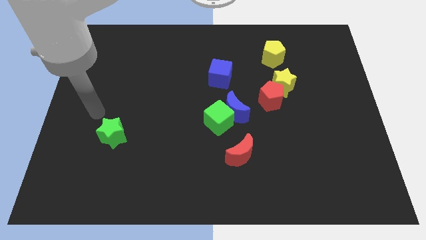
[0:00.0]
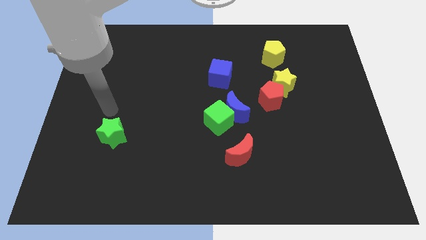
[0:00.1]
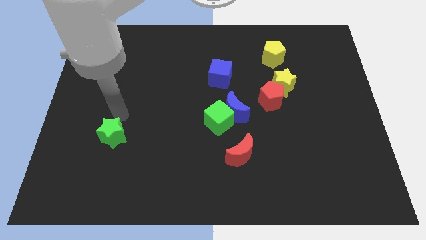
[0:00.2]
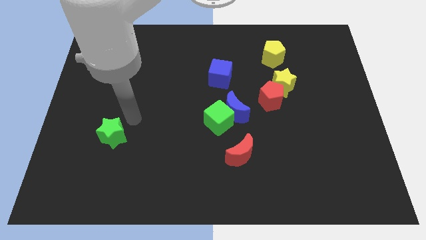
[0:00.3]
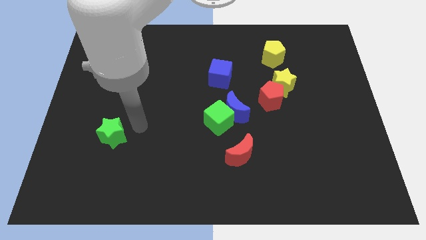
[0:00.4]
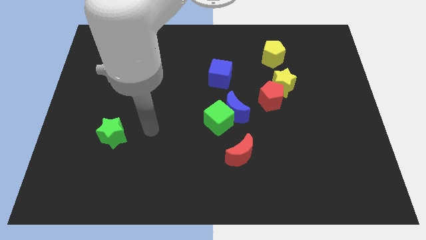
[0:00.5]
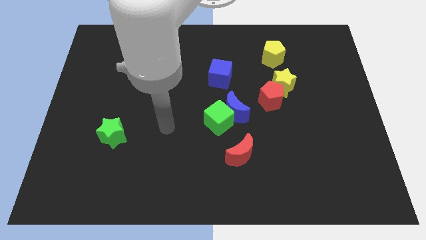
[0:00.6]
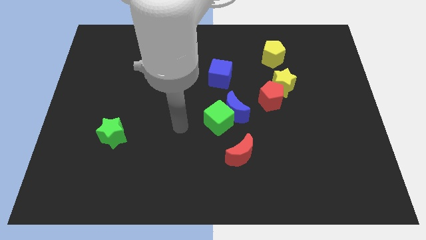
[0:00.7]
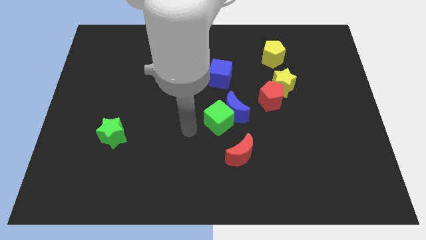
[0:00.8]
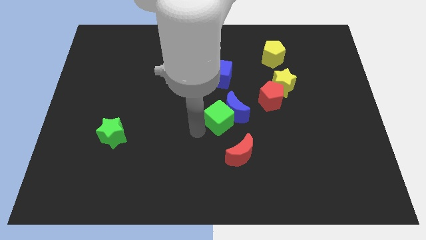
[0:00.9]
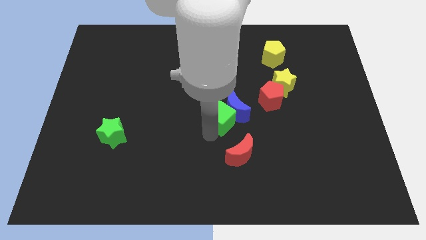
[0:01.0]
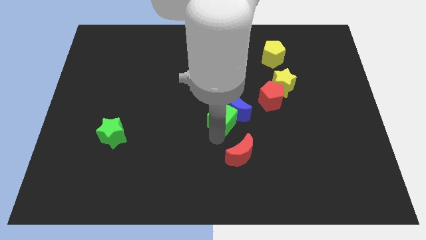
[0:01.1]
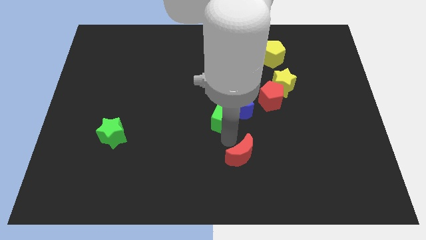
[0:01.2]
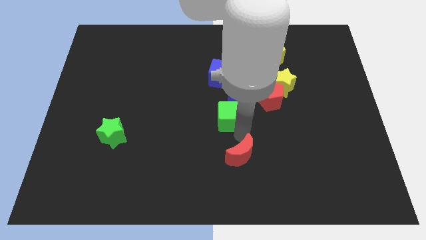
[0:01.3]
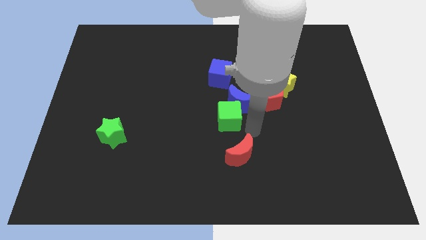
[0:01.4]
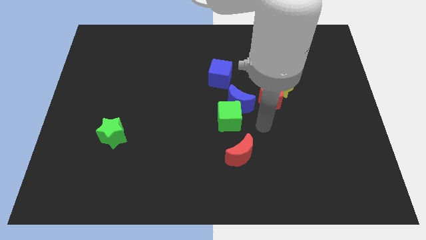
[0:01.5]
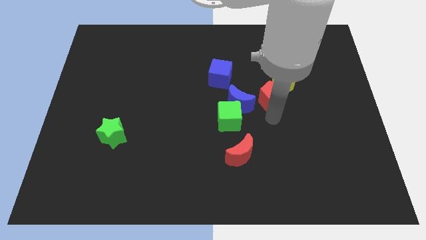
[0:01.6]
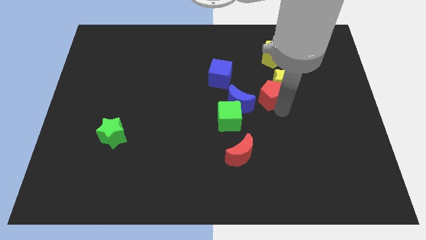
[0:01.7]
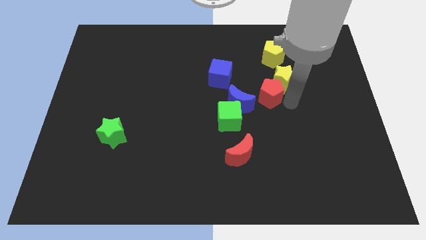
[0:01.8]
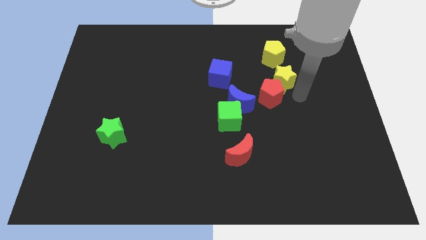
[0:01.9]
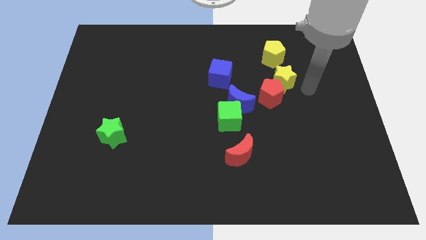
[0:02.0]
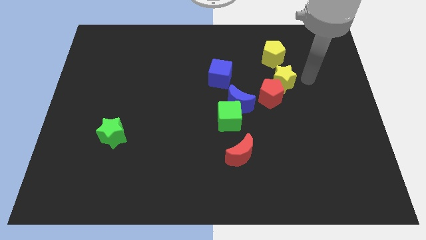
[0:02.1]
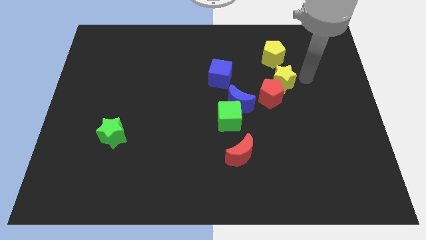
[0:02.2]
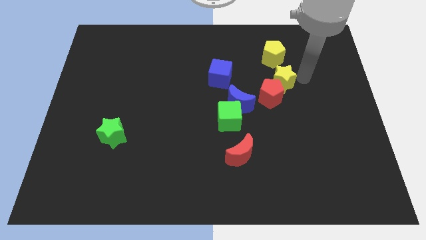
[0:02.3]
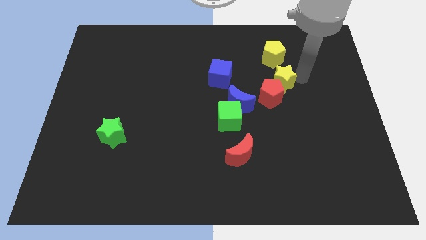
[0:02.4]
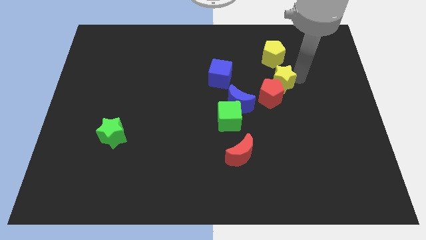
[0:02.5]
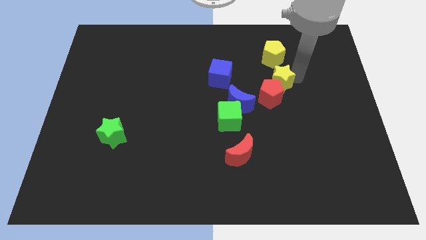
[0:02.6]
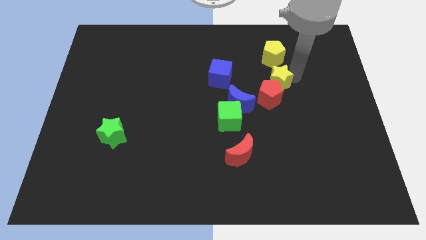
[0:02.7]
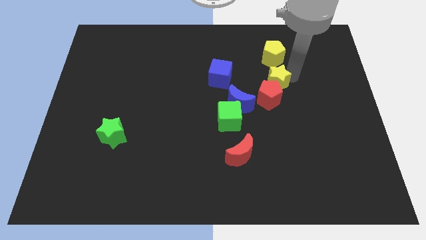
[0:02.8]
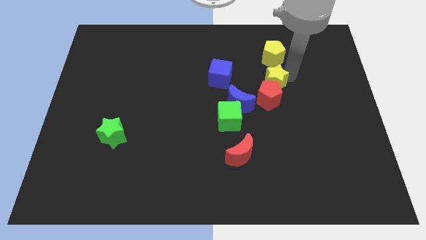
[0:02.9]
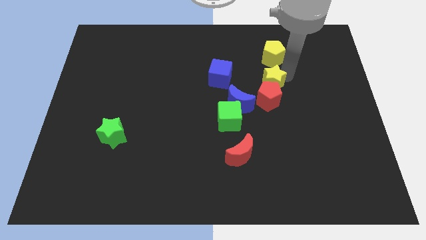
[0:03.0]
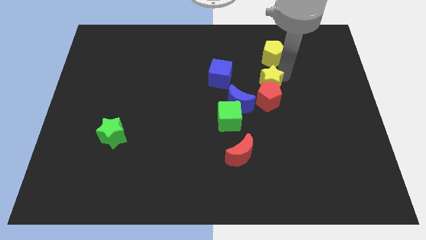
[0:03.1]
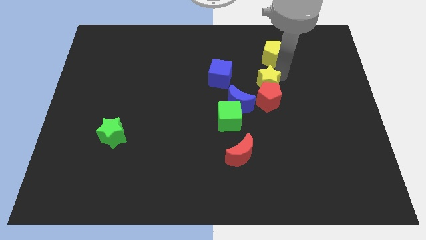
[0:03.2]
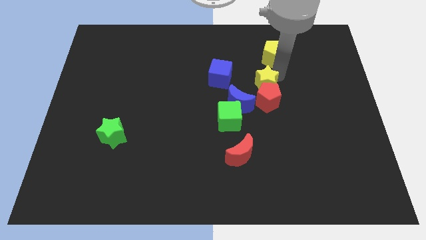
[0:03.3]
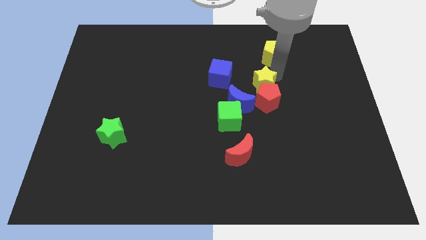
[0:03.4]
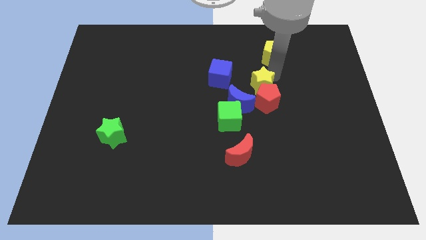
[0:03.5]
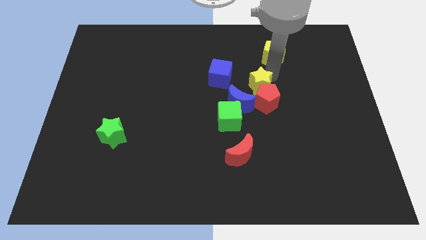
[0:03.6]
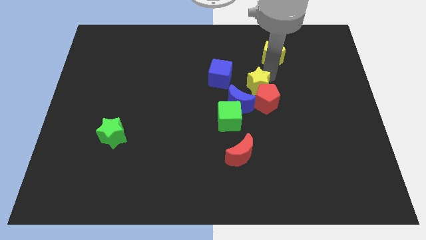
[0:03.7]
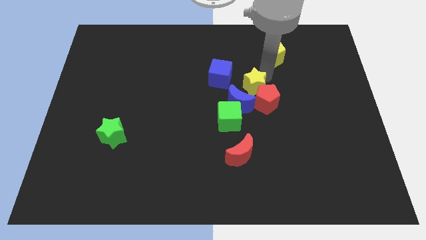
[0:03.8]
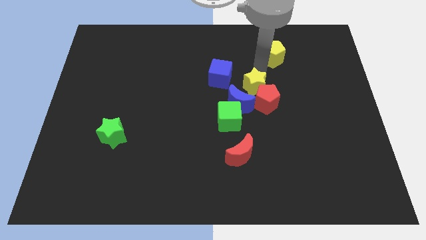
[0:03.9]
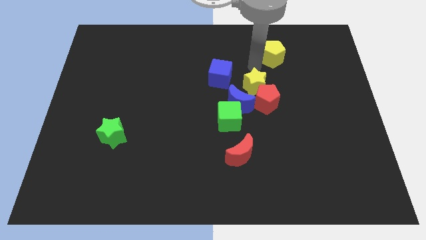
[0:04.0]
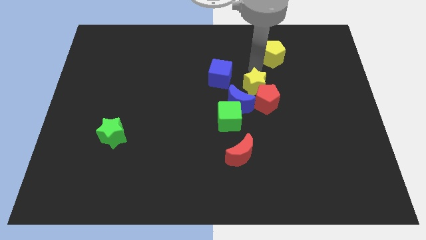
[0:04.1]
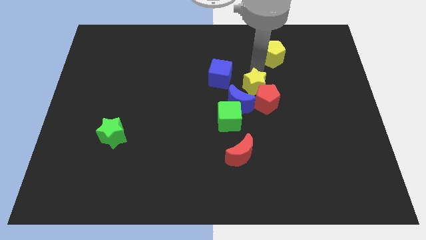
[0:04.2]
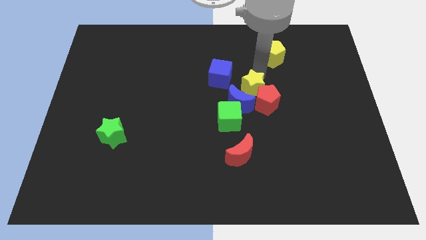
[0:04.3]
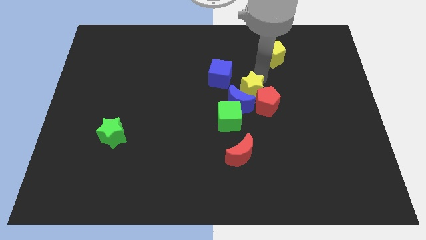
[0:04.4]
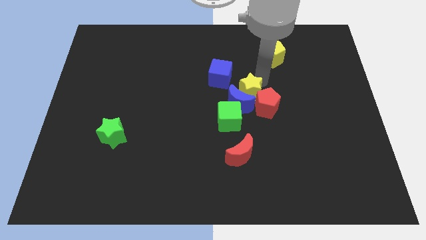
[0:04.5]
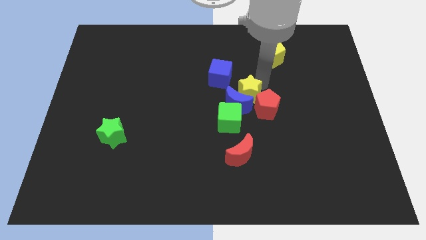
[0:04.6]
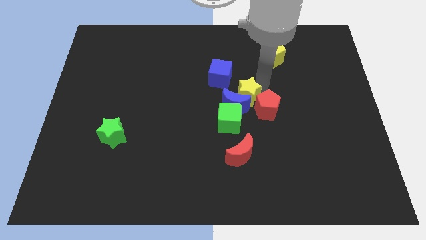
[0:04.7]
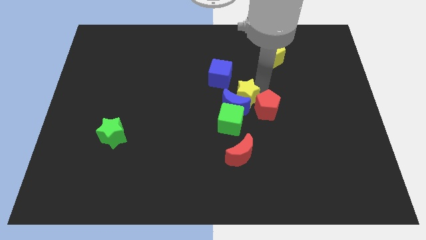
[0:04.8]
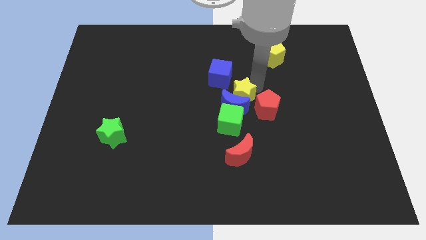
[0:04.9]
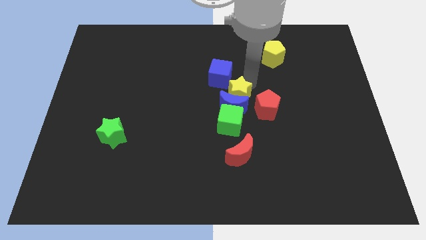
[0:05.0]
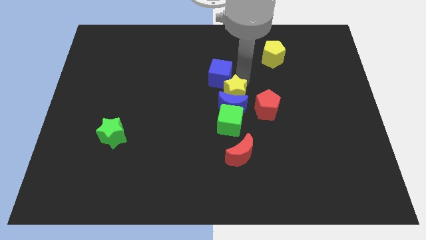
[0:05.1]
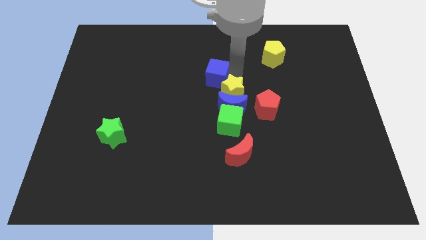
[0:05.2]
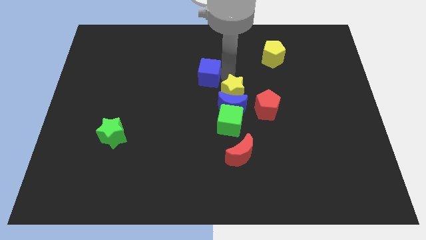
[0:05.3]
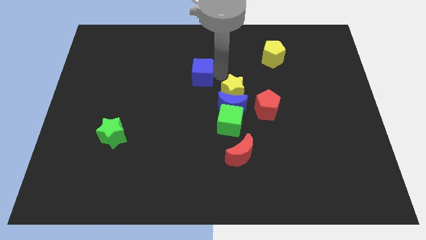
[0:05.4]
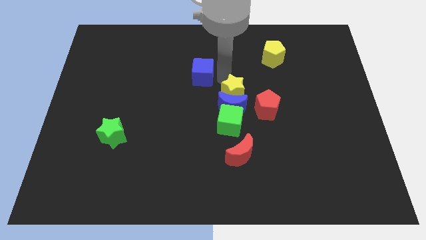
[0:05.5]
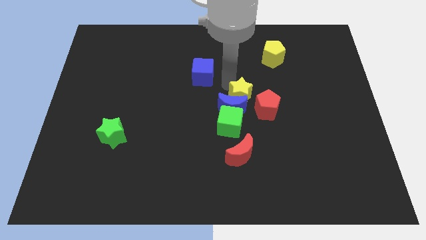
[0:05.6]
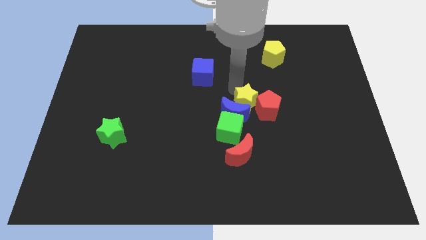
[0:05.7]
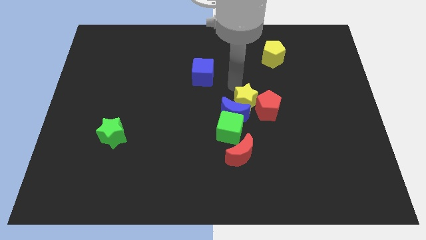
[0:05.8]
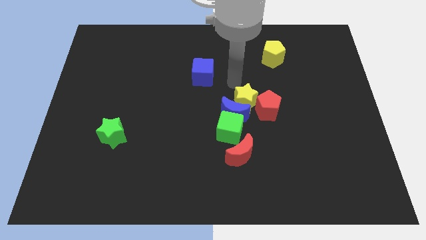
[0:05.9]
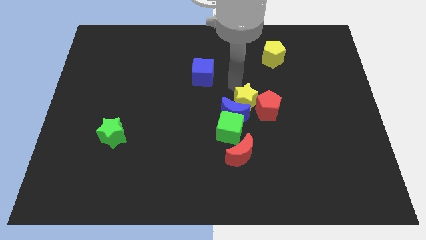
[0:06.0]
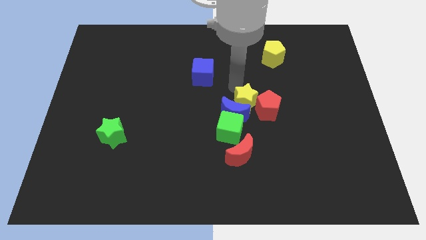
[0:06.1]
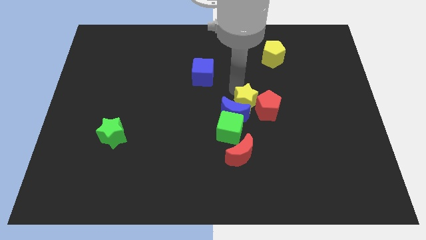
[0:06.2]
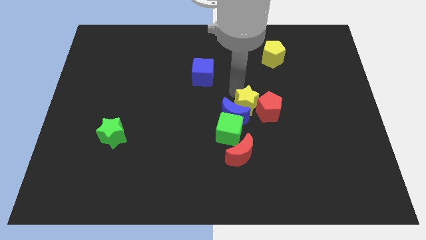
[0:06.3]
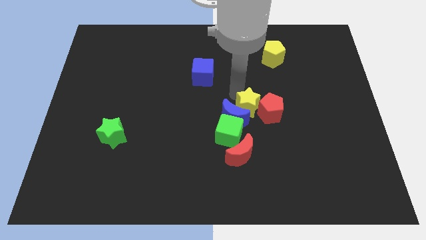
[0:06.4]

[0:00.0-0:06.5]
push the yellow star to the bottom left side of the red pentagon

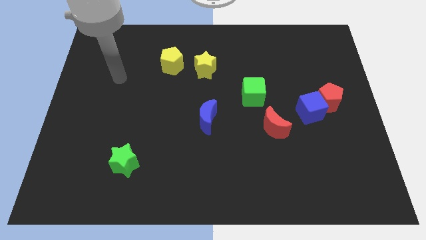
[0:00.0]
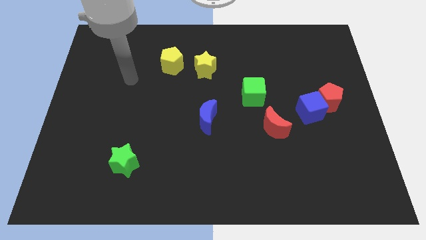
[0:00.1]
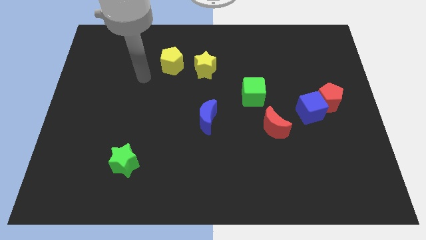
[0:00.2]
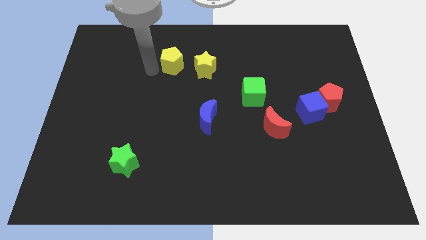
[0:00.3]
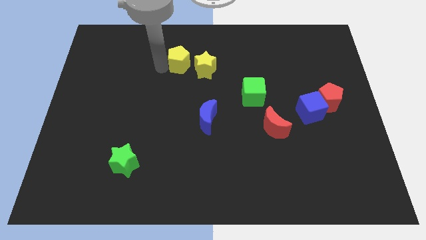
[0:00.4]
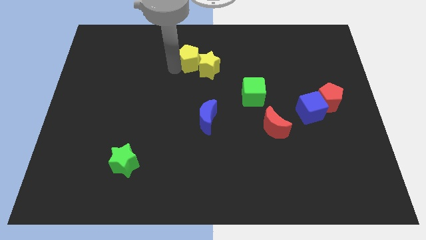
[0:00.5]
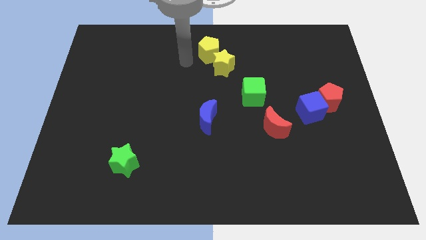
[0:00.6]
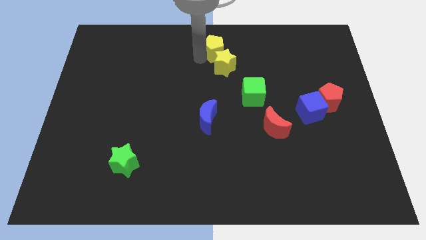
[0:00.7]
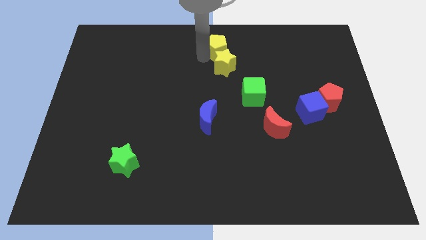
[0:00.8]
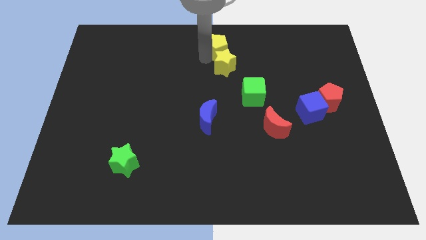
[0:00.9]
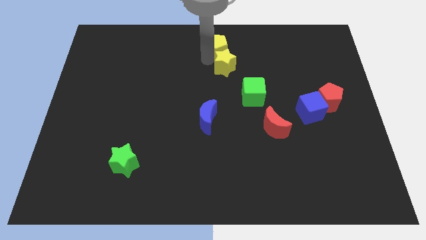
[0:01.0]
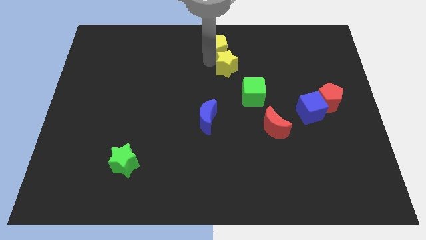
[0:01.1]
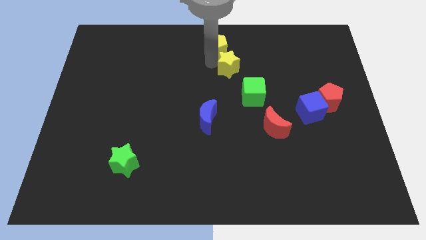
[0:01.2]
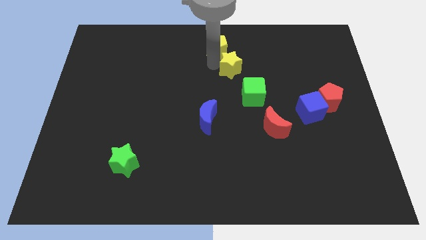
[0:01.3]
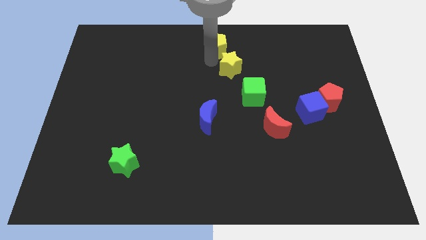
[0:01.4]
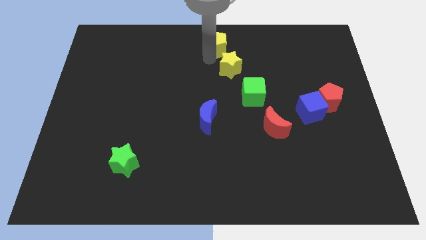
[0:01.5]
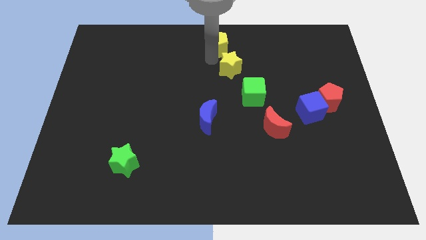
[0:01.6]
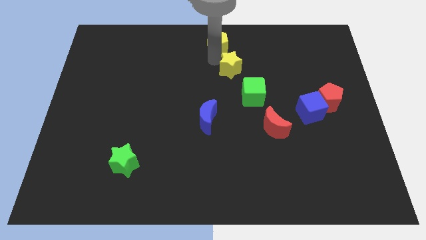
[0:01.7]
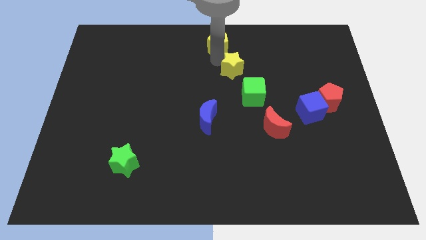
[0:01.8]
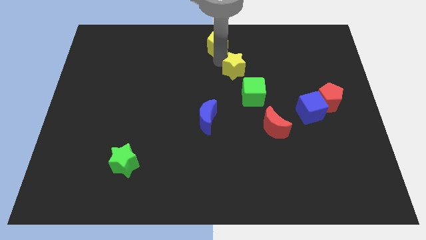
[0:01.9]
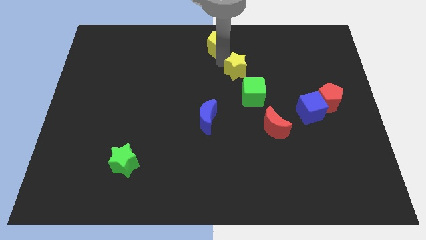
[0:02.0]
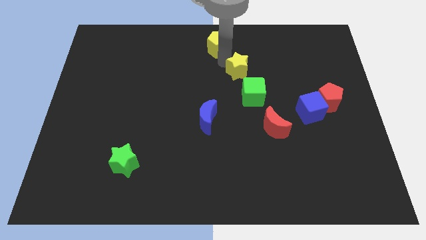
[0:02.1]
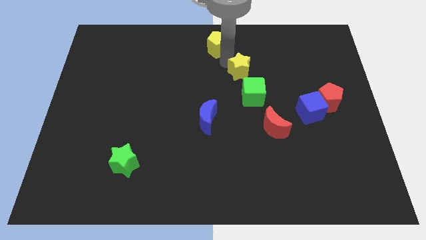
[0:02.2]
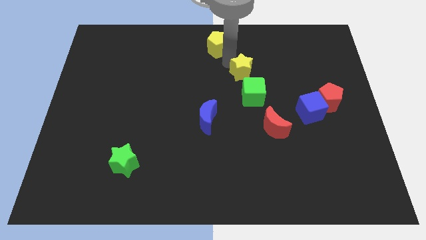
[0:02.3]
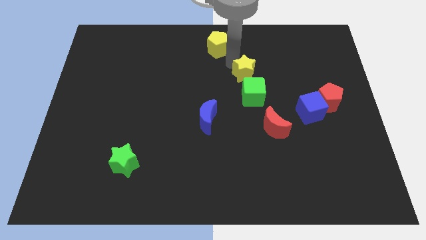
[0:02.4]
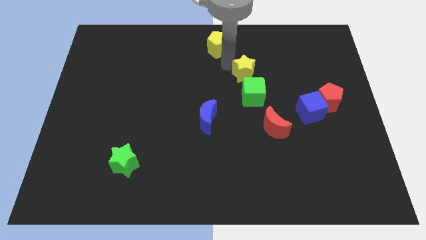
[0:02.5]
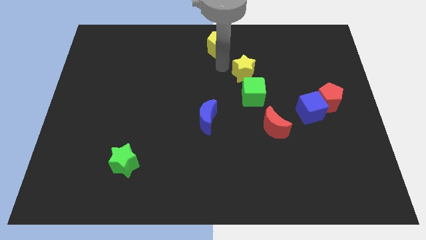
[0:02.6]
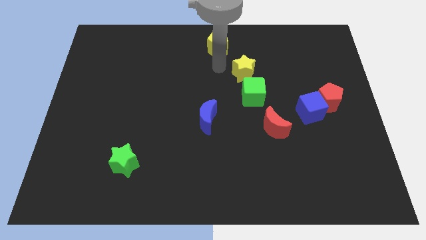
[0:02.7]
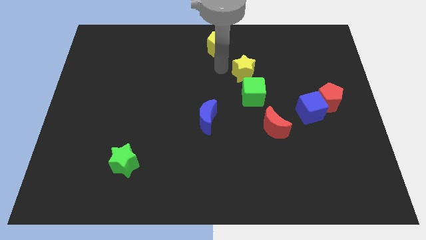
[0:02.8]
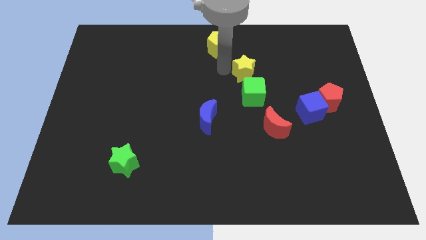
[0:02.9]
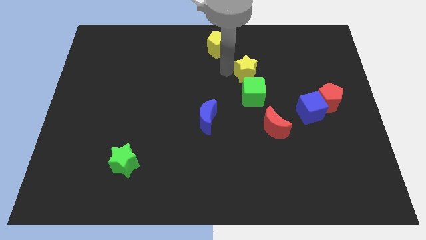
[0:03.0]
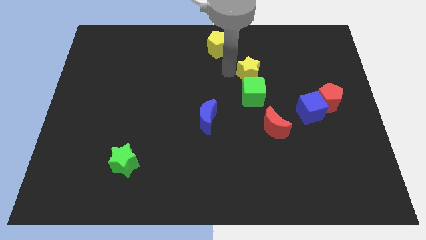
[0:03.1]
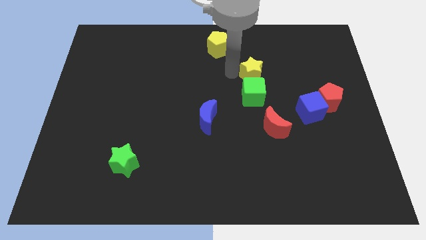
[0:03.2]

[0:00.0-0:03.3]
push the yellow star to the top right of the green cube
